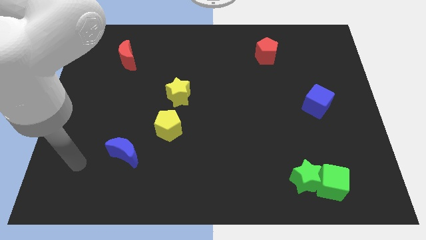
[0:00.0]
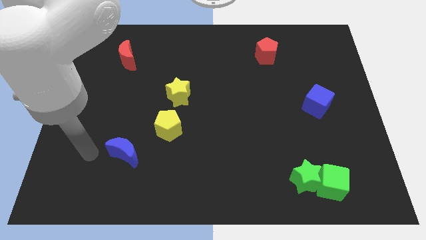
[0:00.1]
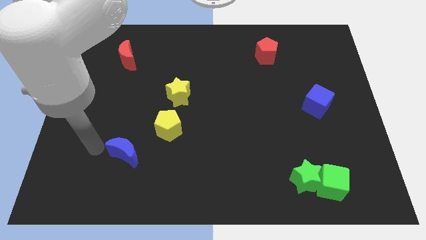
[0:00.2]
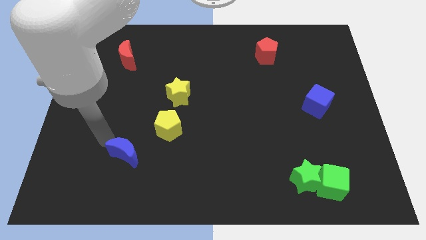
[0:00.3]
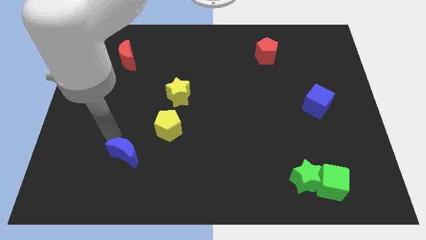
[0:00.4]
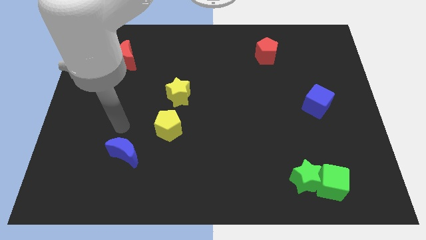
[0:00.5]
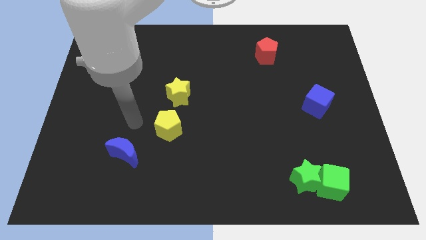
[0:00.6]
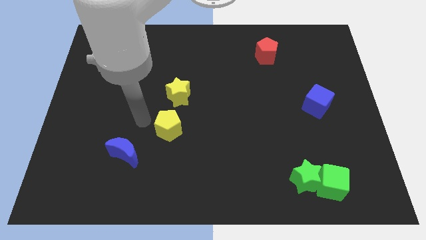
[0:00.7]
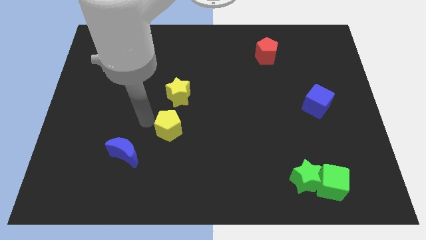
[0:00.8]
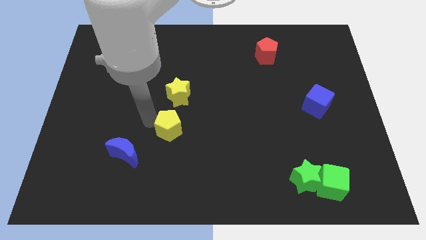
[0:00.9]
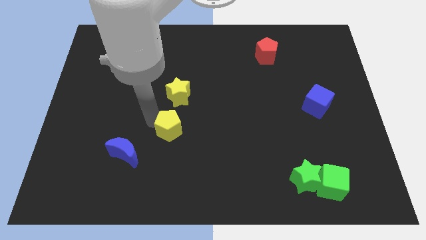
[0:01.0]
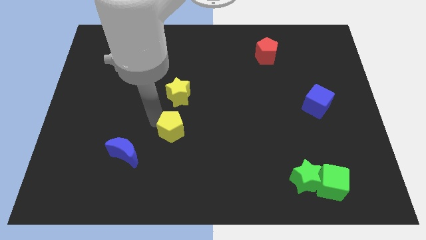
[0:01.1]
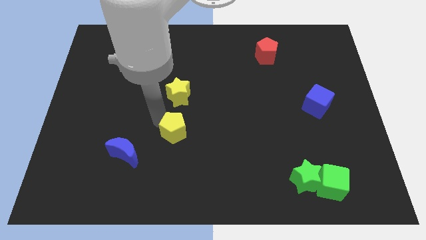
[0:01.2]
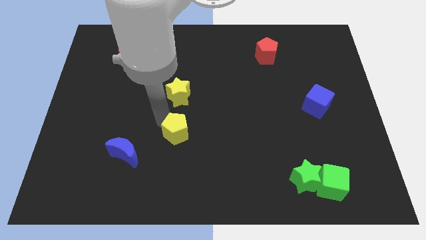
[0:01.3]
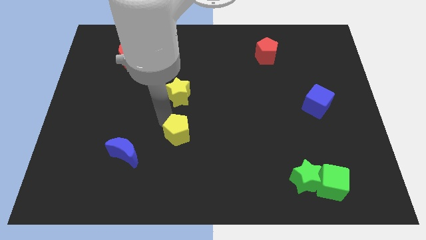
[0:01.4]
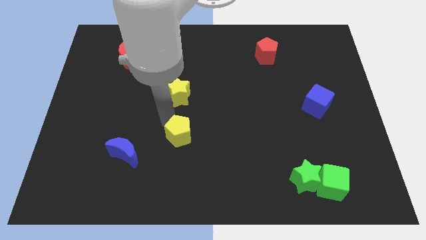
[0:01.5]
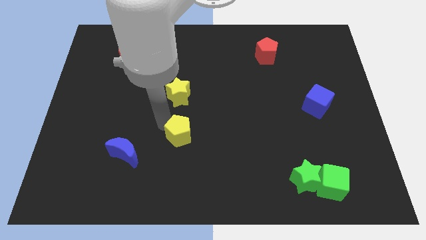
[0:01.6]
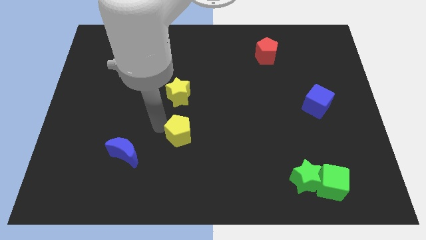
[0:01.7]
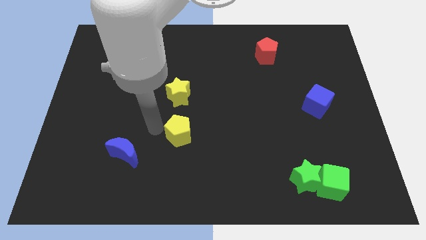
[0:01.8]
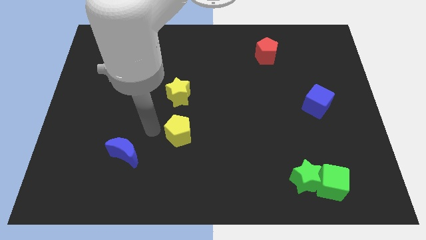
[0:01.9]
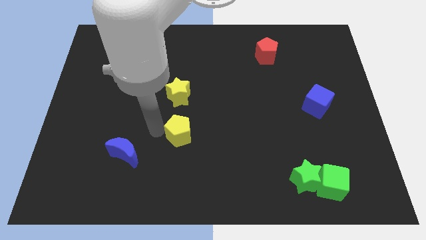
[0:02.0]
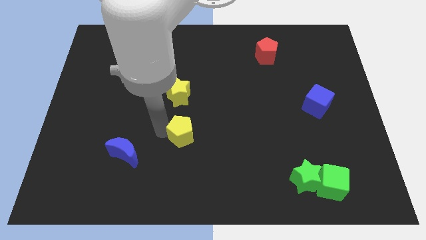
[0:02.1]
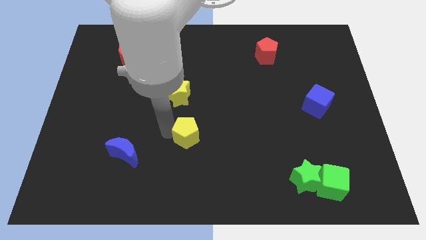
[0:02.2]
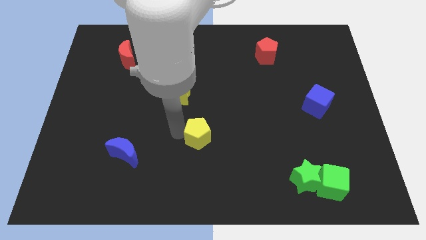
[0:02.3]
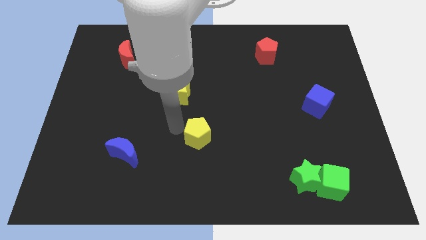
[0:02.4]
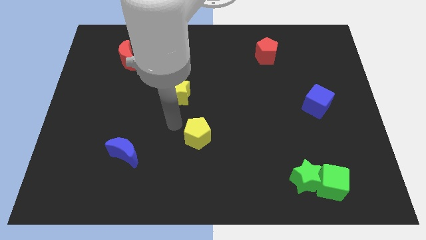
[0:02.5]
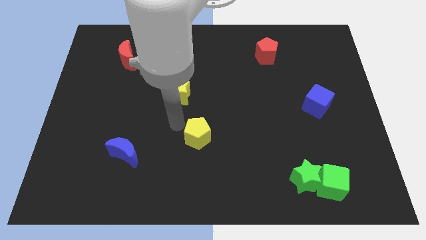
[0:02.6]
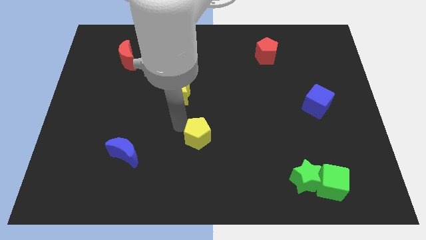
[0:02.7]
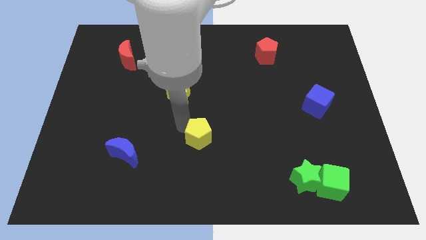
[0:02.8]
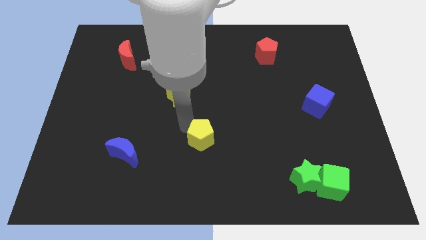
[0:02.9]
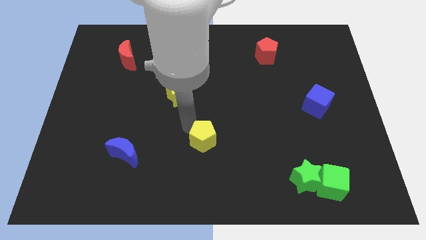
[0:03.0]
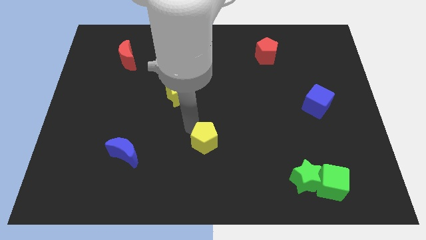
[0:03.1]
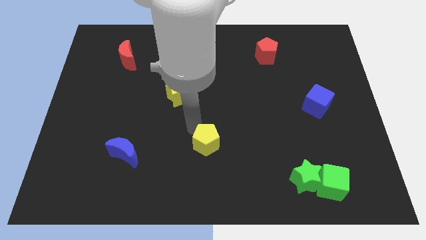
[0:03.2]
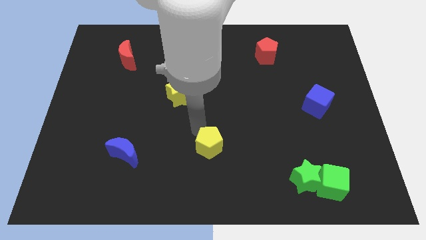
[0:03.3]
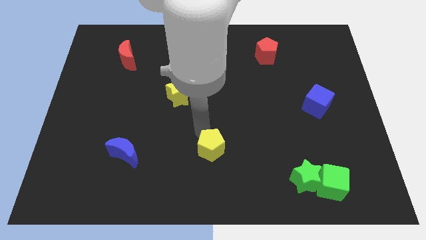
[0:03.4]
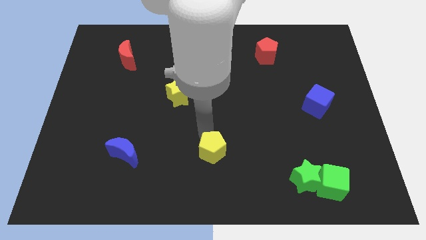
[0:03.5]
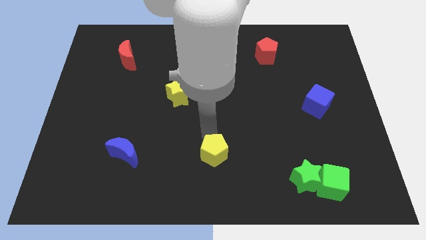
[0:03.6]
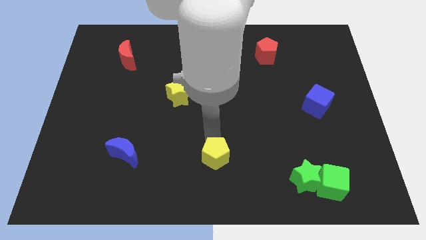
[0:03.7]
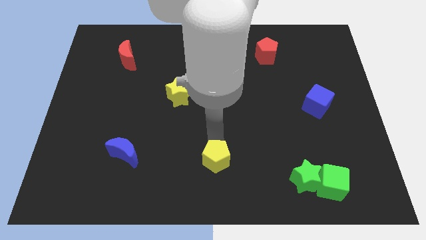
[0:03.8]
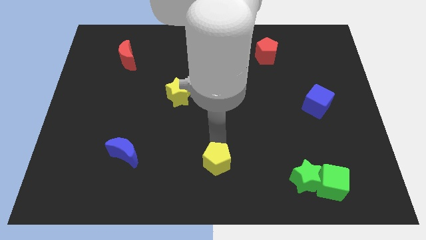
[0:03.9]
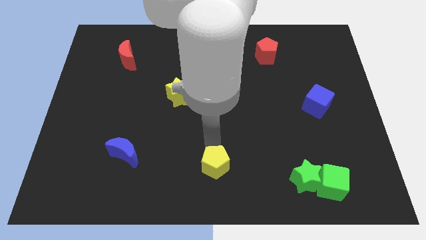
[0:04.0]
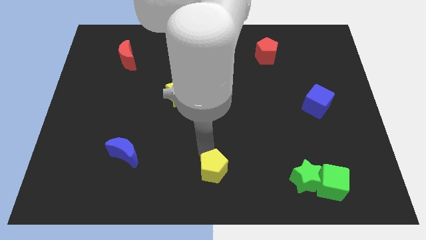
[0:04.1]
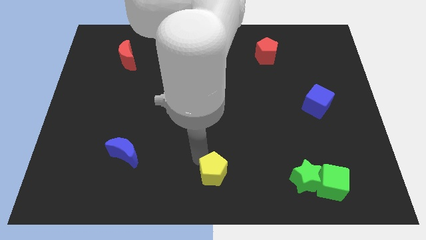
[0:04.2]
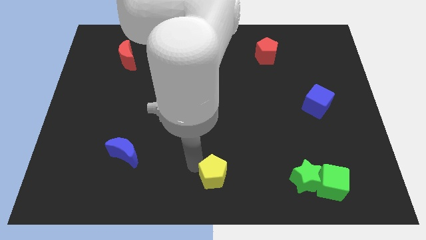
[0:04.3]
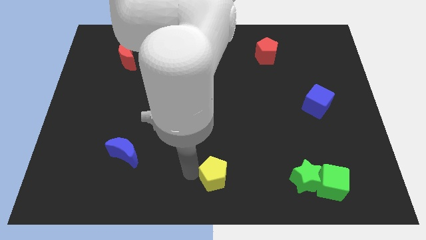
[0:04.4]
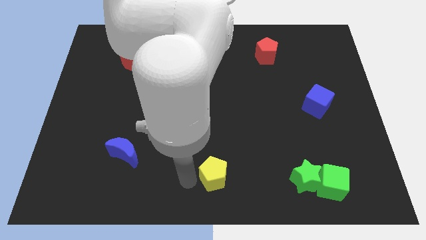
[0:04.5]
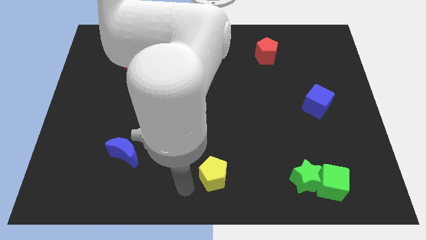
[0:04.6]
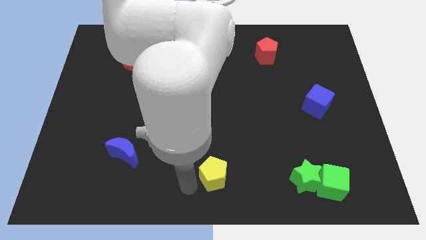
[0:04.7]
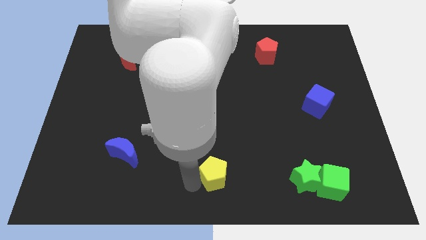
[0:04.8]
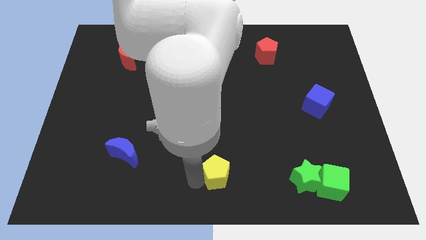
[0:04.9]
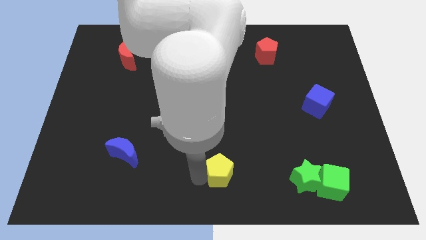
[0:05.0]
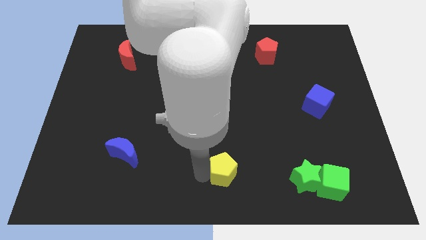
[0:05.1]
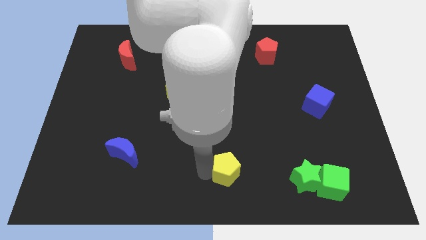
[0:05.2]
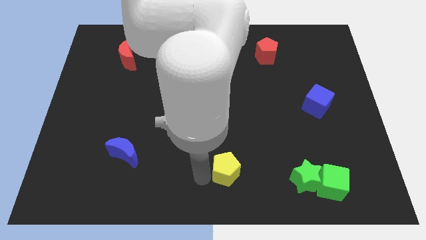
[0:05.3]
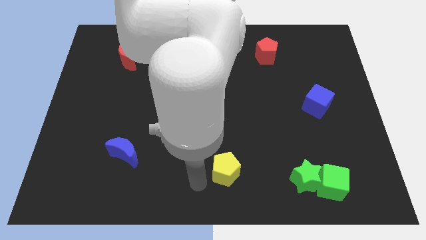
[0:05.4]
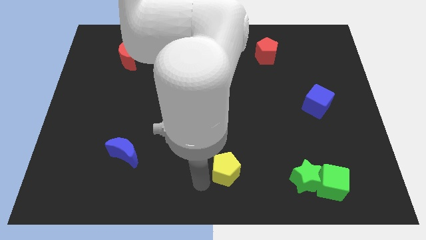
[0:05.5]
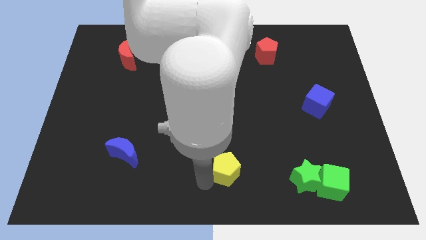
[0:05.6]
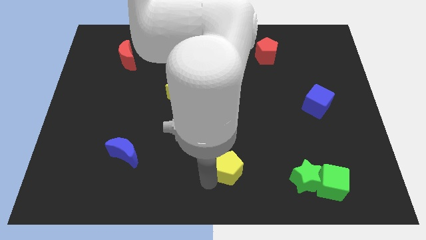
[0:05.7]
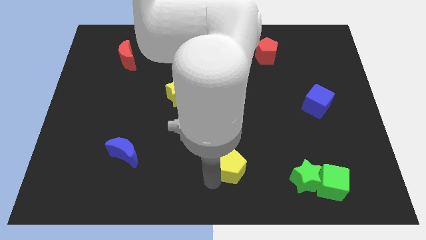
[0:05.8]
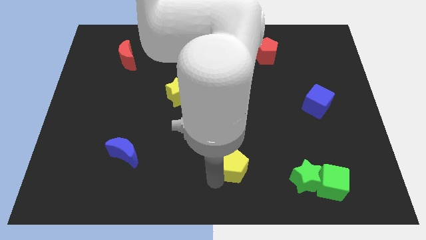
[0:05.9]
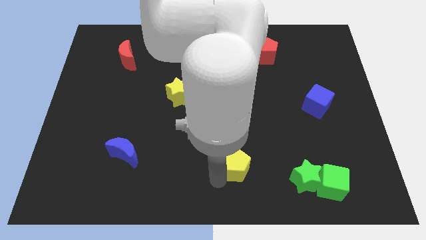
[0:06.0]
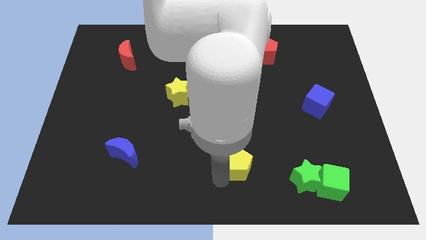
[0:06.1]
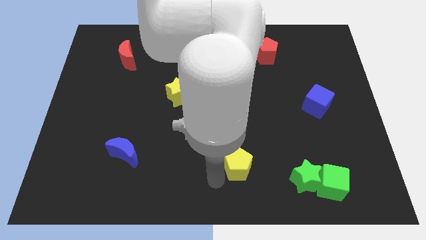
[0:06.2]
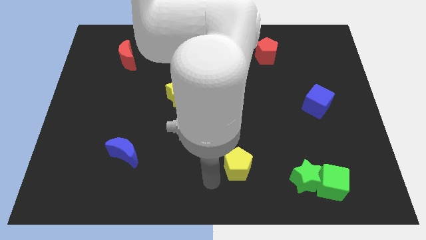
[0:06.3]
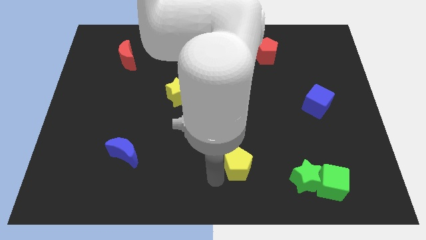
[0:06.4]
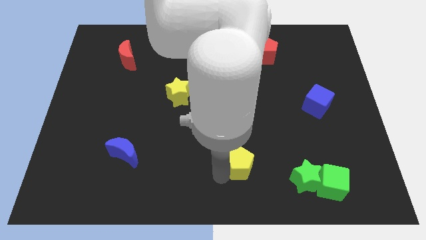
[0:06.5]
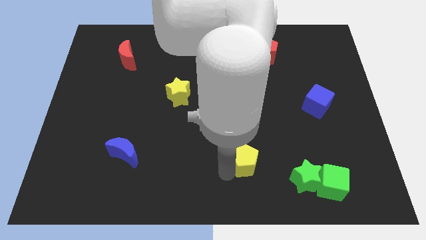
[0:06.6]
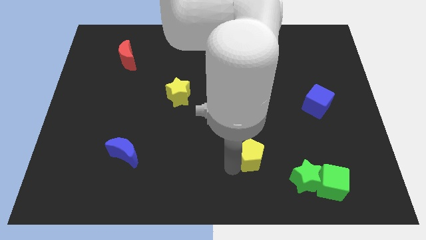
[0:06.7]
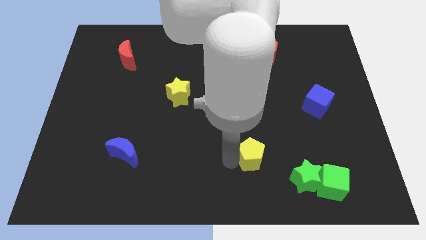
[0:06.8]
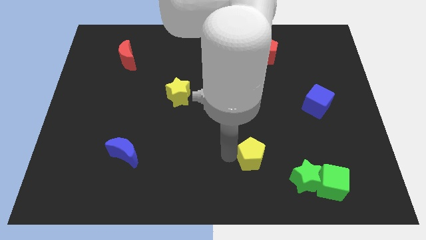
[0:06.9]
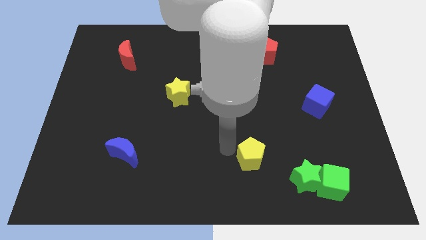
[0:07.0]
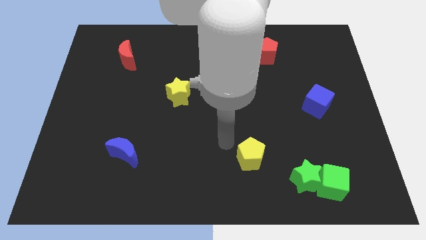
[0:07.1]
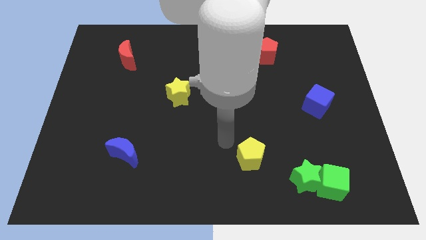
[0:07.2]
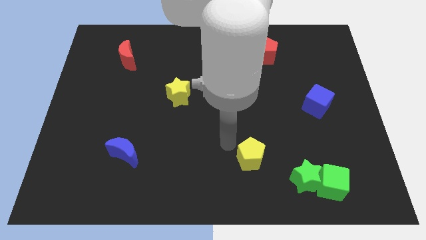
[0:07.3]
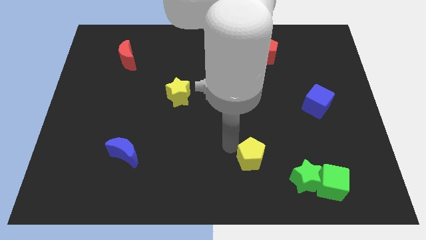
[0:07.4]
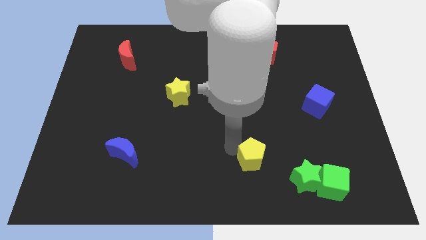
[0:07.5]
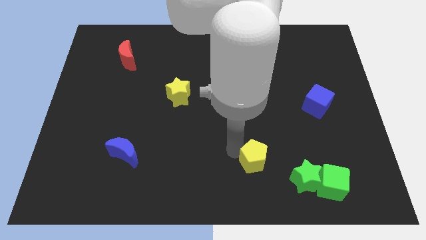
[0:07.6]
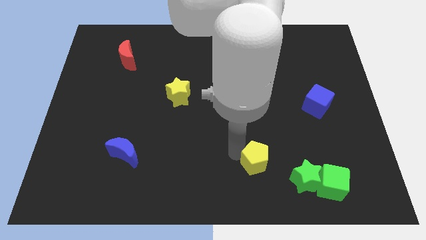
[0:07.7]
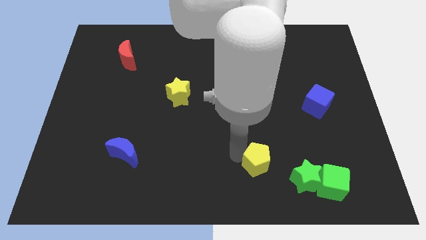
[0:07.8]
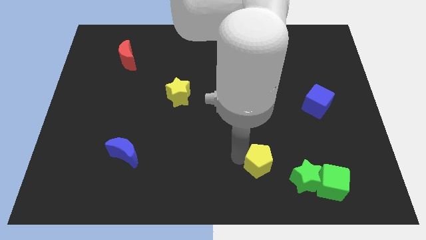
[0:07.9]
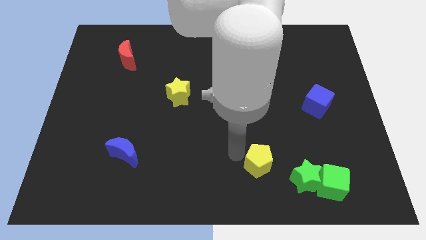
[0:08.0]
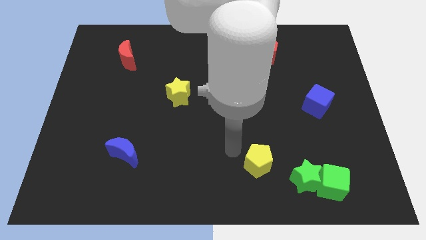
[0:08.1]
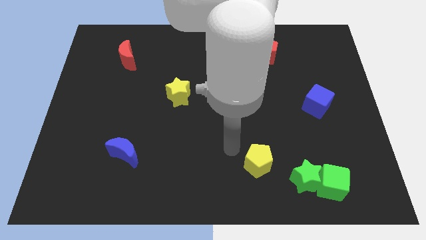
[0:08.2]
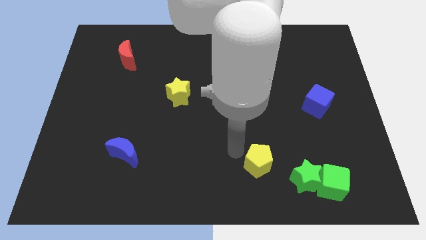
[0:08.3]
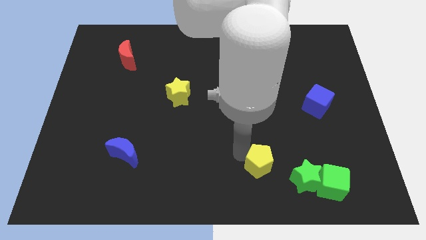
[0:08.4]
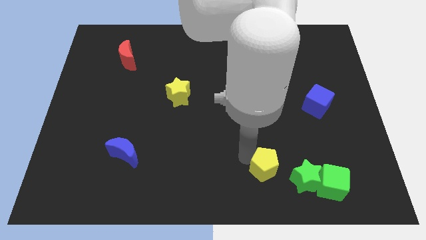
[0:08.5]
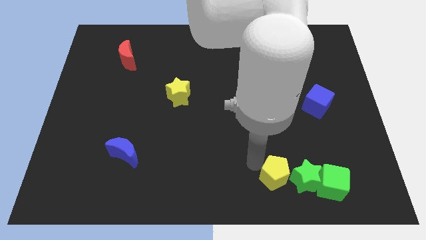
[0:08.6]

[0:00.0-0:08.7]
move the yellow pentagon towards the green star
